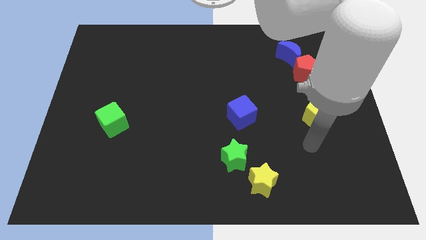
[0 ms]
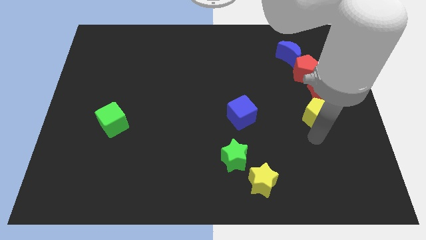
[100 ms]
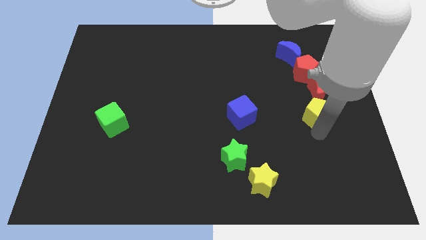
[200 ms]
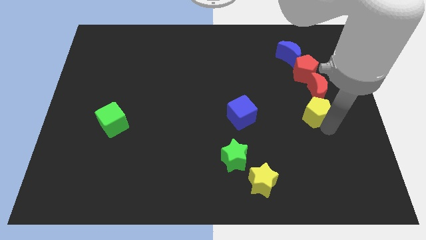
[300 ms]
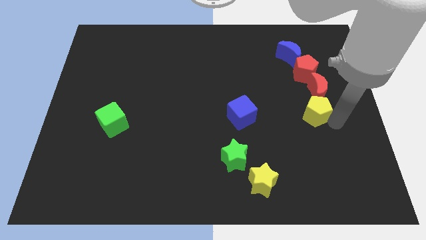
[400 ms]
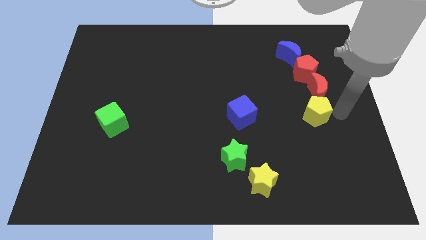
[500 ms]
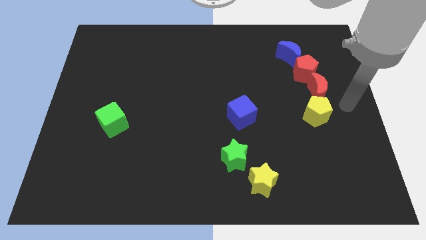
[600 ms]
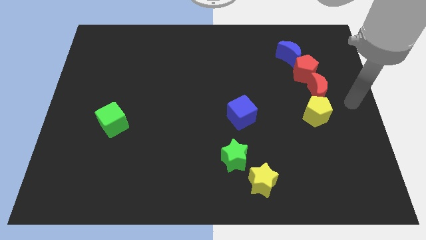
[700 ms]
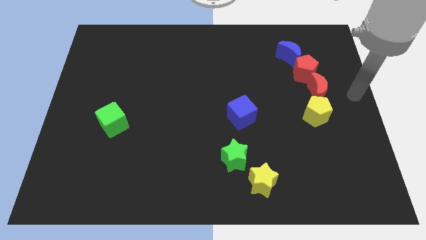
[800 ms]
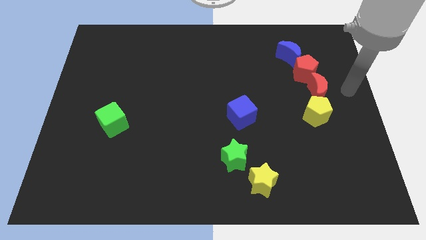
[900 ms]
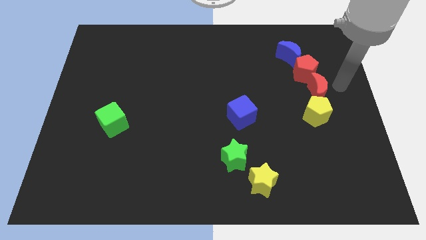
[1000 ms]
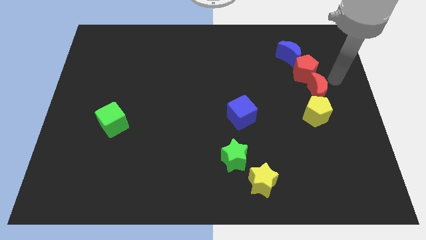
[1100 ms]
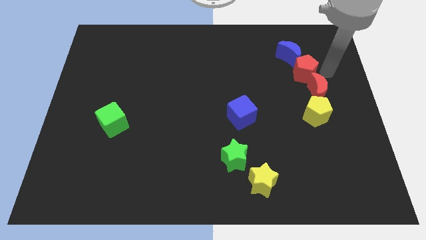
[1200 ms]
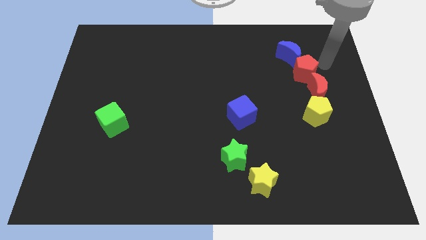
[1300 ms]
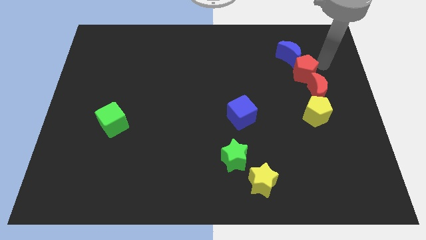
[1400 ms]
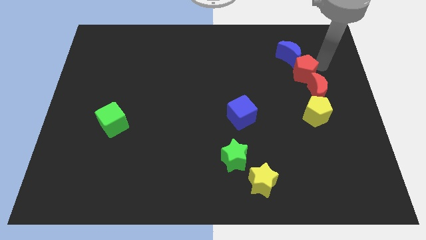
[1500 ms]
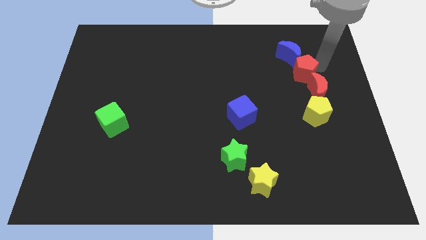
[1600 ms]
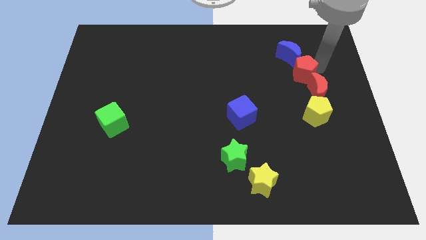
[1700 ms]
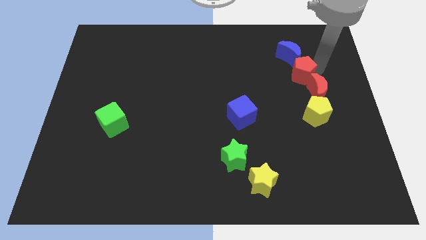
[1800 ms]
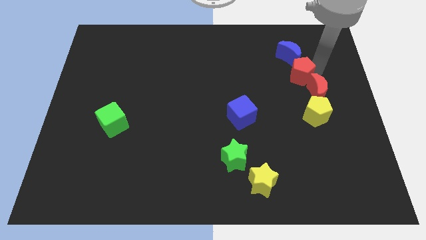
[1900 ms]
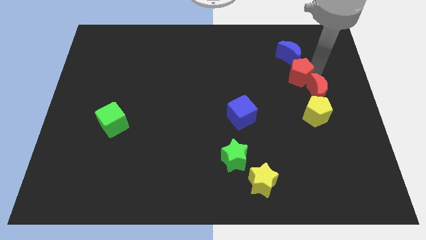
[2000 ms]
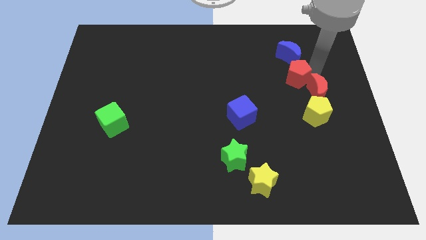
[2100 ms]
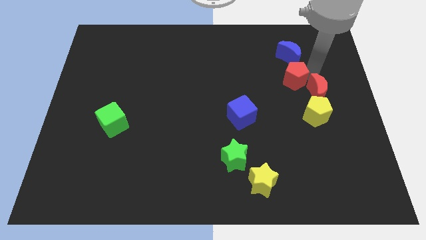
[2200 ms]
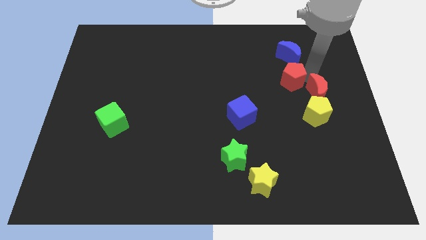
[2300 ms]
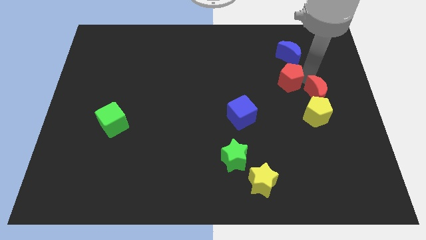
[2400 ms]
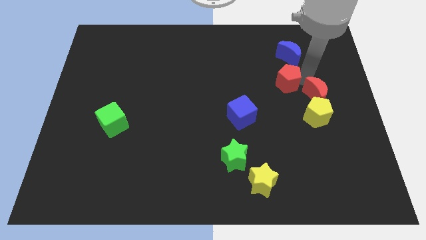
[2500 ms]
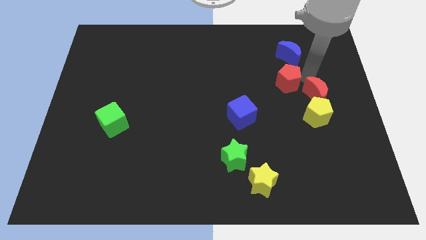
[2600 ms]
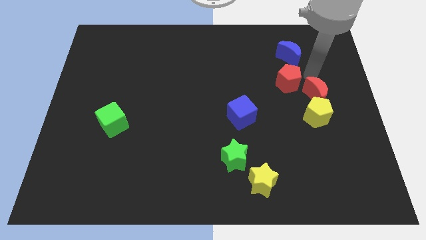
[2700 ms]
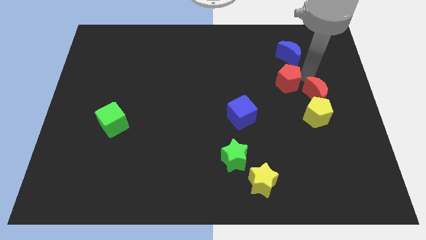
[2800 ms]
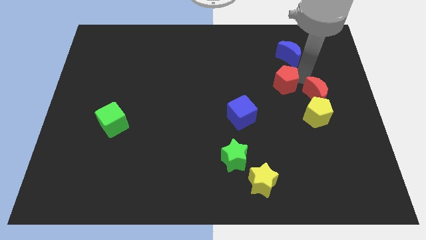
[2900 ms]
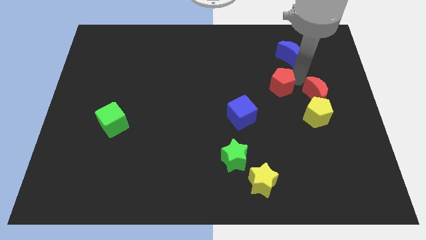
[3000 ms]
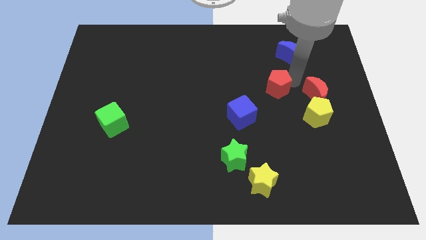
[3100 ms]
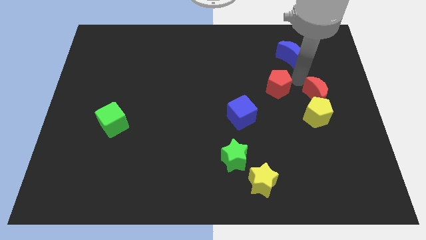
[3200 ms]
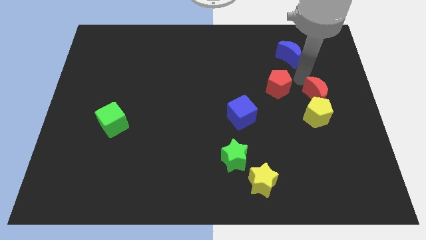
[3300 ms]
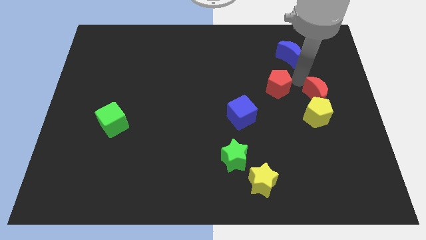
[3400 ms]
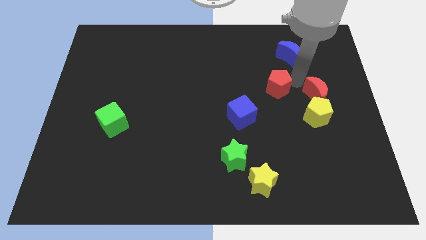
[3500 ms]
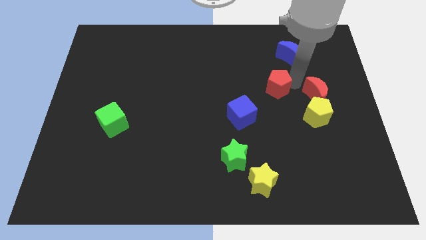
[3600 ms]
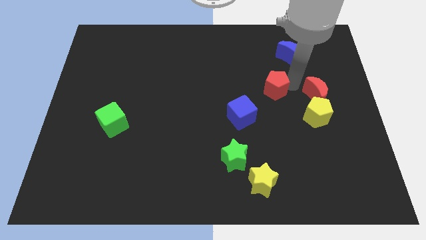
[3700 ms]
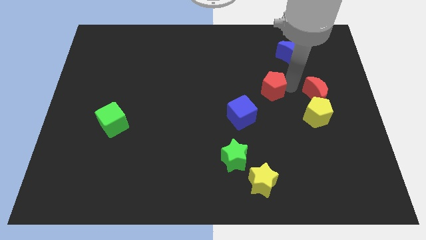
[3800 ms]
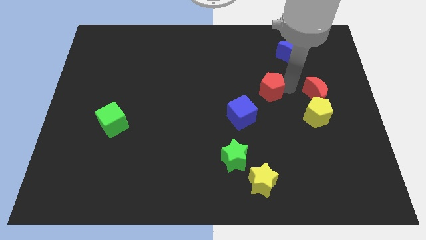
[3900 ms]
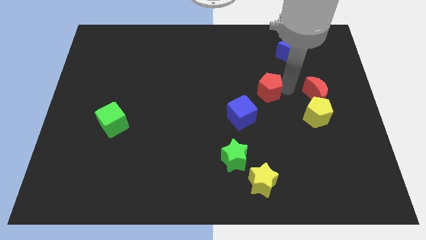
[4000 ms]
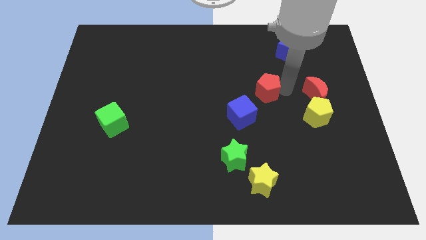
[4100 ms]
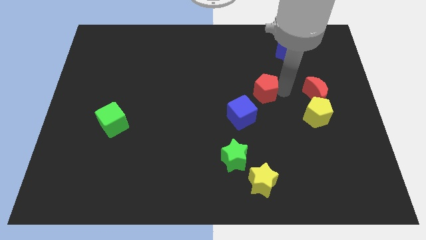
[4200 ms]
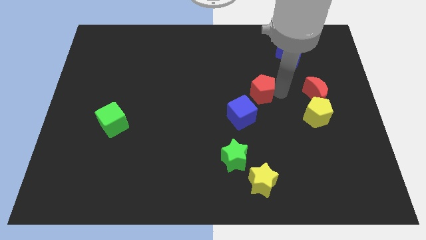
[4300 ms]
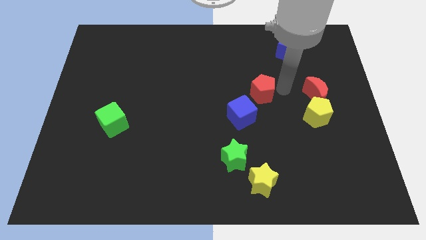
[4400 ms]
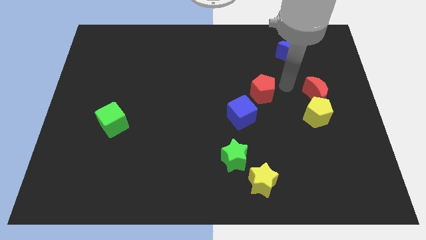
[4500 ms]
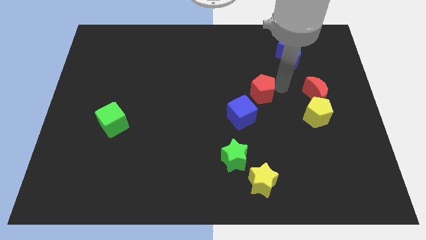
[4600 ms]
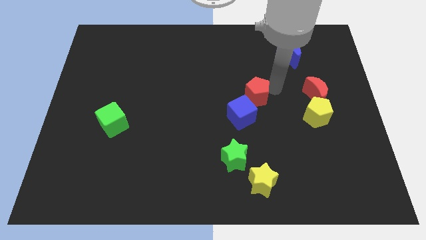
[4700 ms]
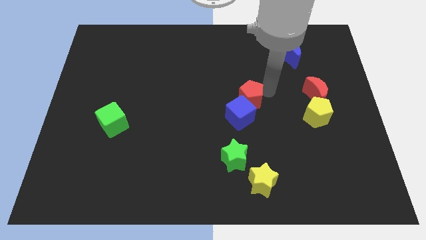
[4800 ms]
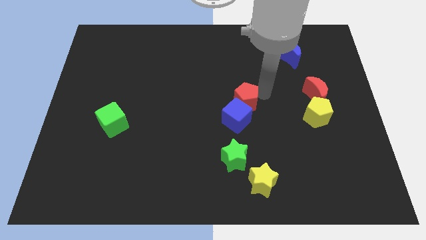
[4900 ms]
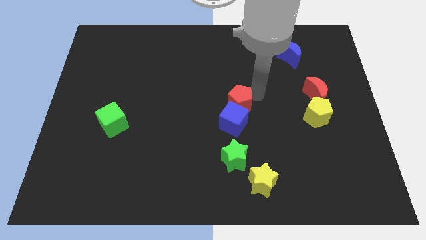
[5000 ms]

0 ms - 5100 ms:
move the red pentagon to the top side of the green star

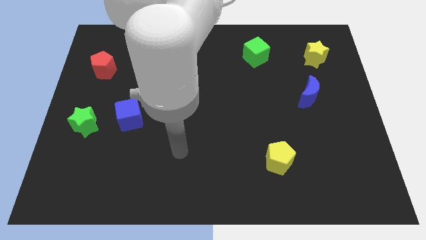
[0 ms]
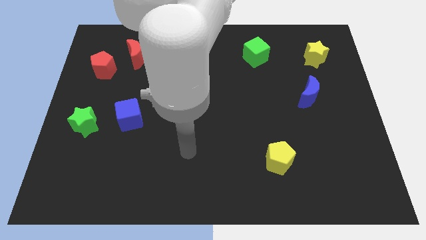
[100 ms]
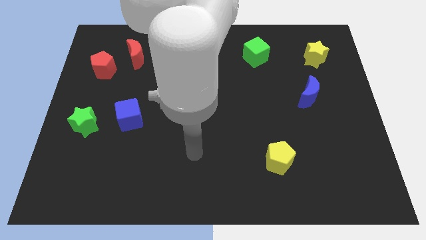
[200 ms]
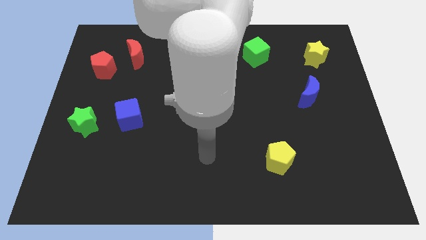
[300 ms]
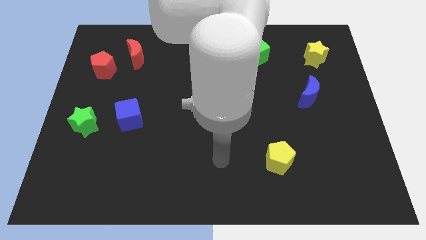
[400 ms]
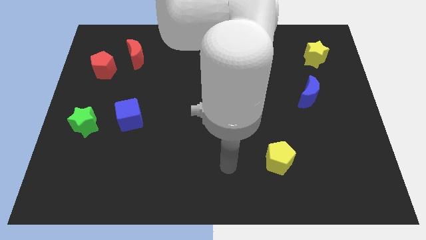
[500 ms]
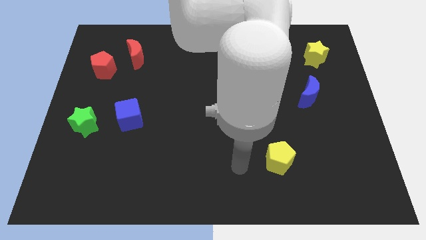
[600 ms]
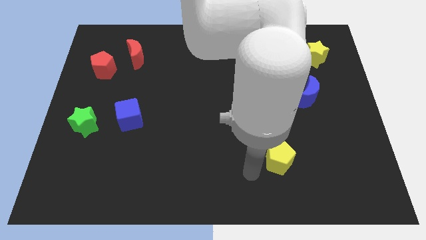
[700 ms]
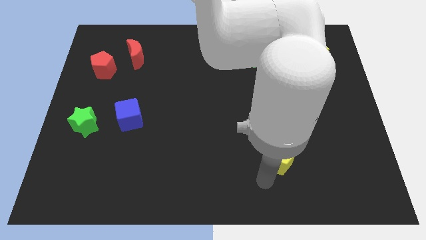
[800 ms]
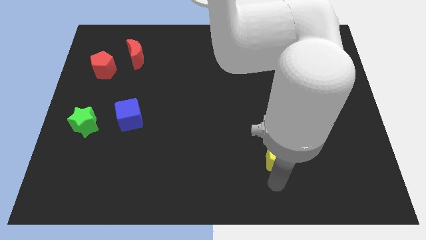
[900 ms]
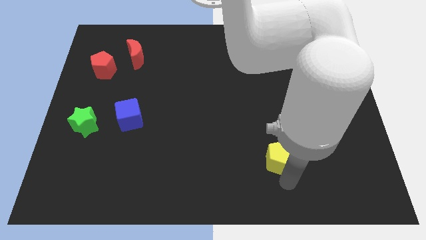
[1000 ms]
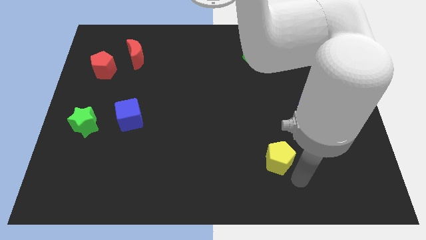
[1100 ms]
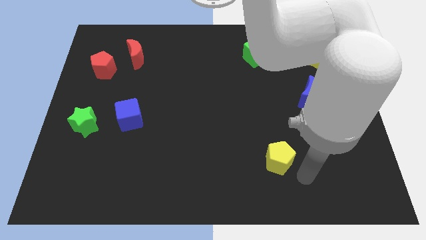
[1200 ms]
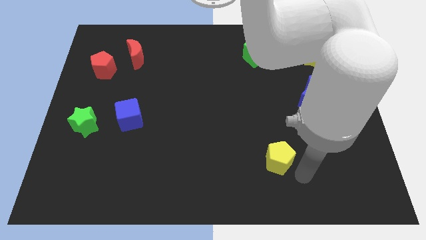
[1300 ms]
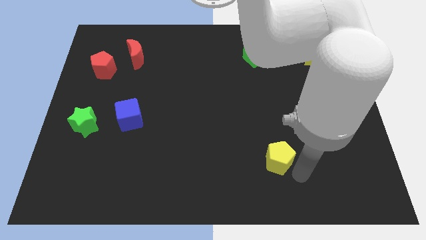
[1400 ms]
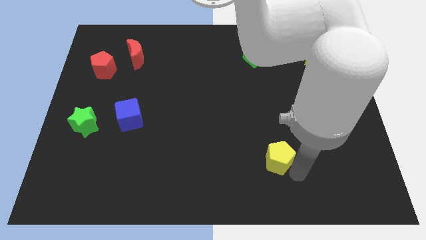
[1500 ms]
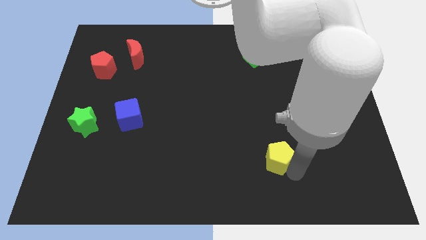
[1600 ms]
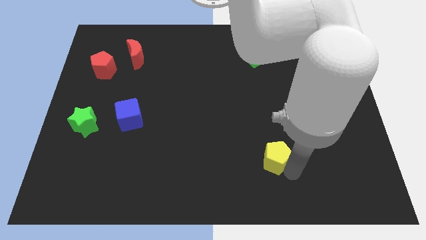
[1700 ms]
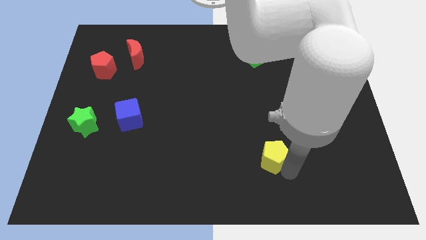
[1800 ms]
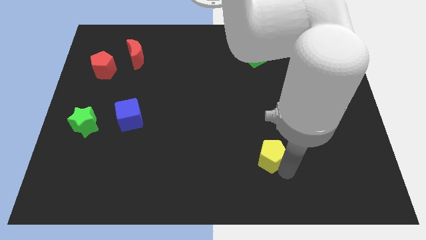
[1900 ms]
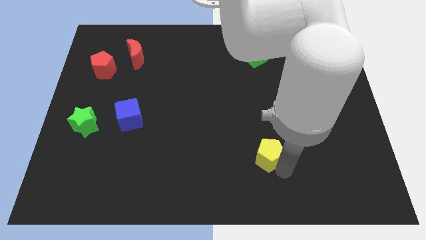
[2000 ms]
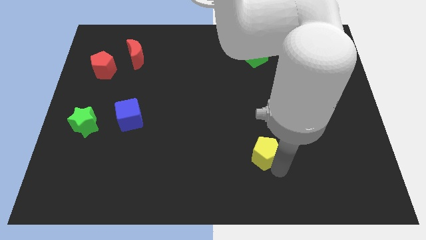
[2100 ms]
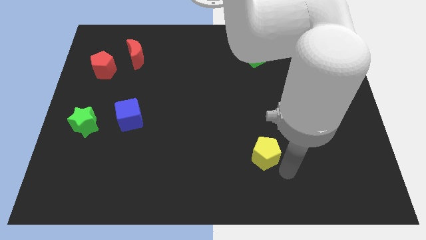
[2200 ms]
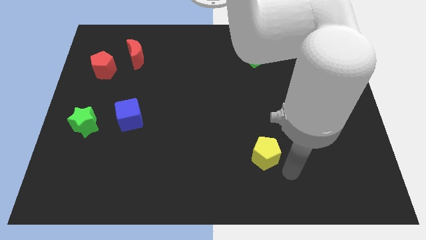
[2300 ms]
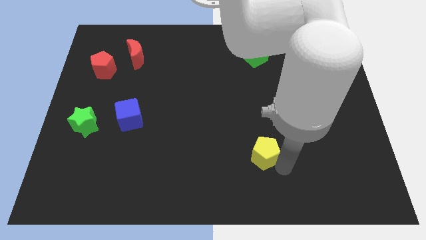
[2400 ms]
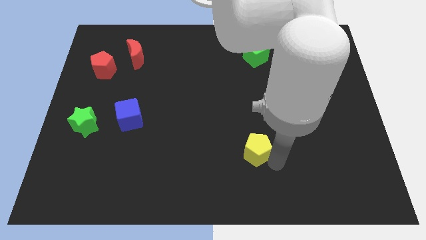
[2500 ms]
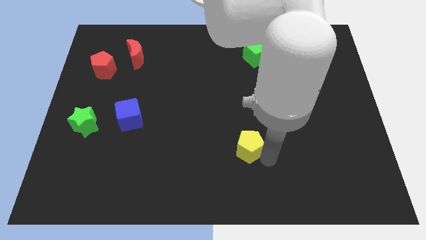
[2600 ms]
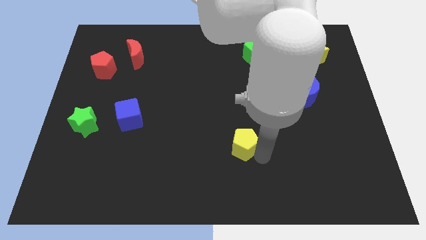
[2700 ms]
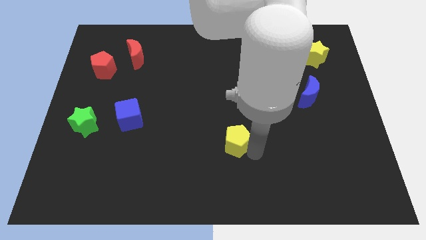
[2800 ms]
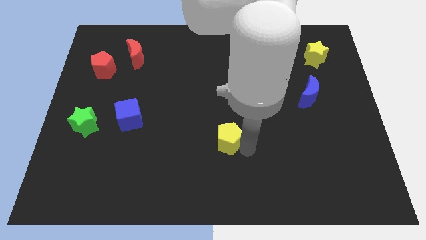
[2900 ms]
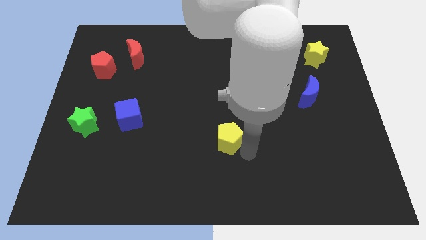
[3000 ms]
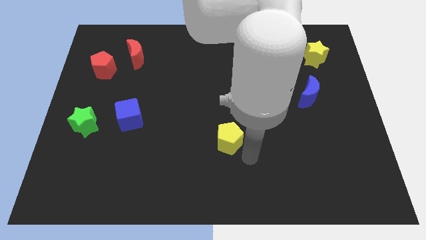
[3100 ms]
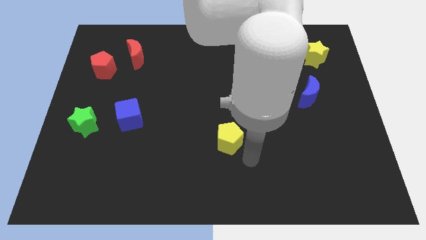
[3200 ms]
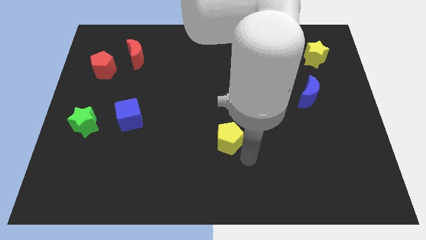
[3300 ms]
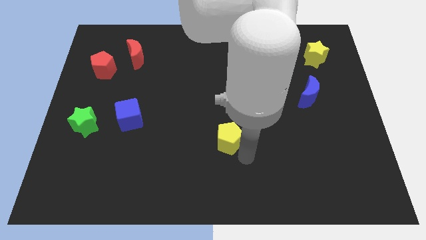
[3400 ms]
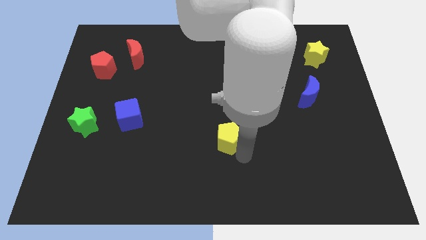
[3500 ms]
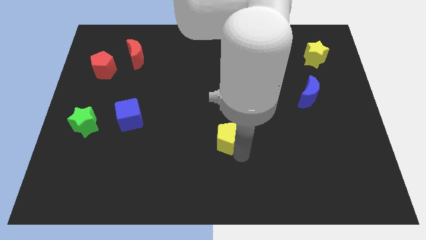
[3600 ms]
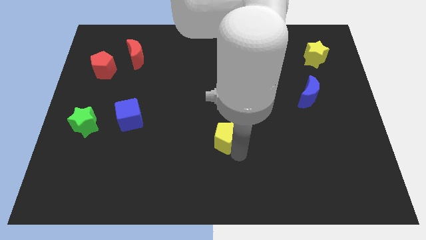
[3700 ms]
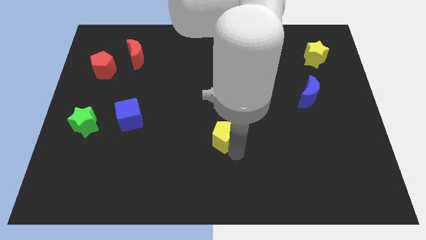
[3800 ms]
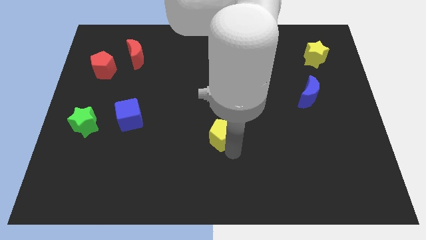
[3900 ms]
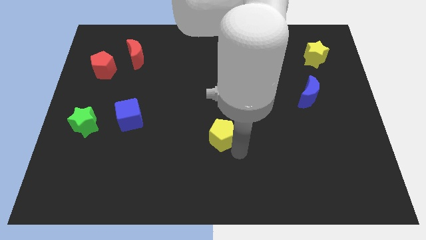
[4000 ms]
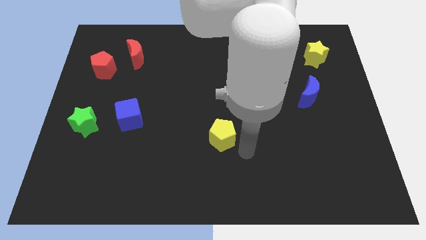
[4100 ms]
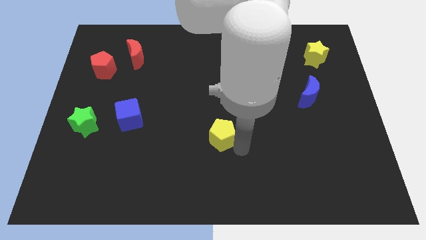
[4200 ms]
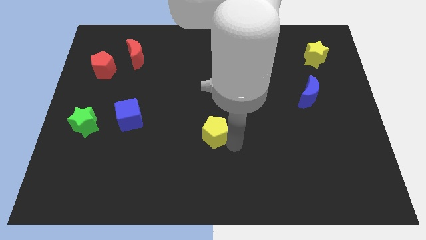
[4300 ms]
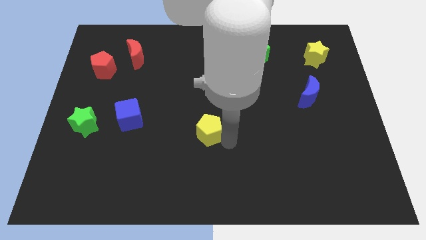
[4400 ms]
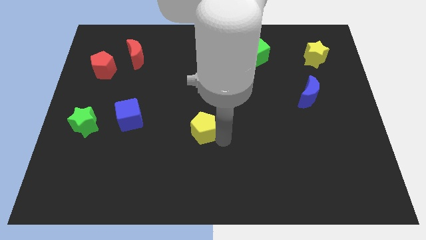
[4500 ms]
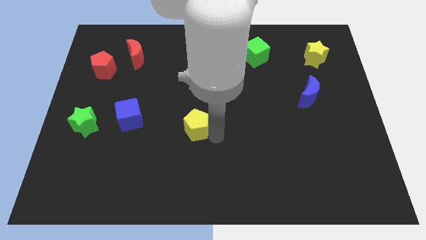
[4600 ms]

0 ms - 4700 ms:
move the yellow pentagon just right of the blue cube
